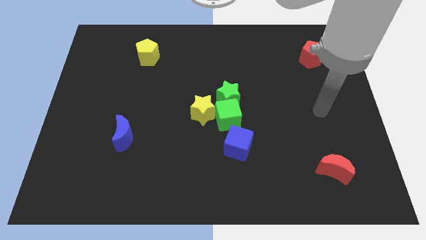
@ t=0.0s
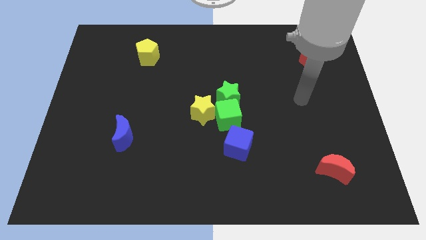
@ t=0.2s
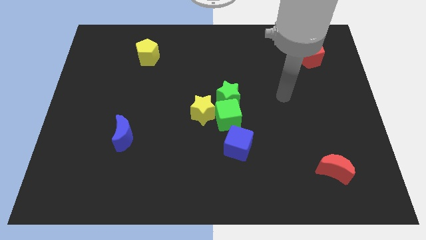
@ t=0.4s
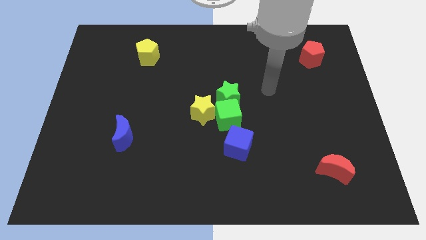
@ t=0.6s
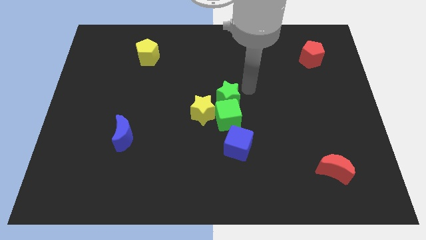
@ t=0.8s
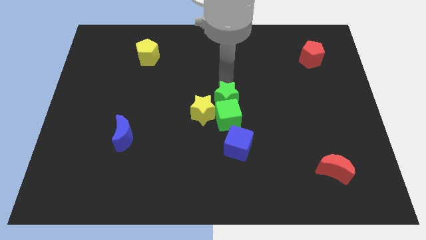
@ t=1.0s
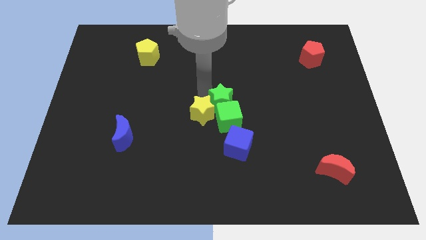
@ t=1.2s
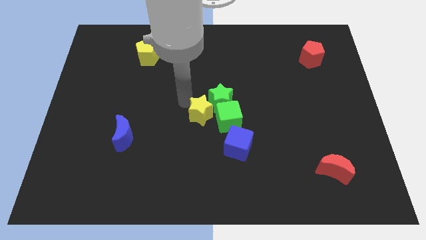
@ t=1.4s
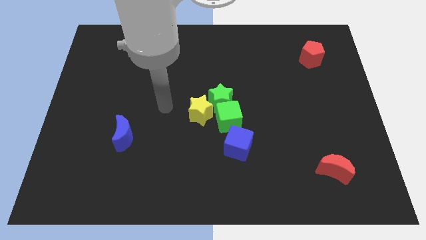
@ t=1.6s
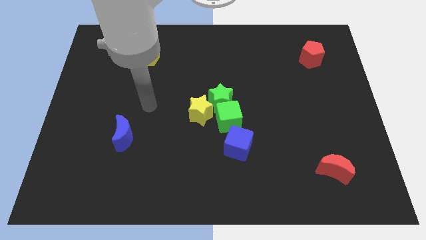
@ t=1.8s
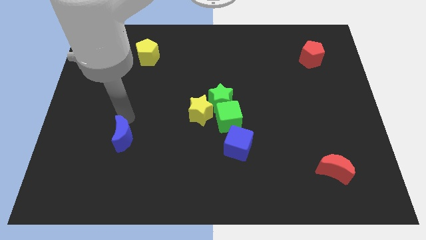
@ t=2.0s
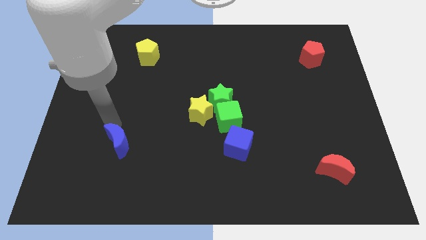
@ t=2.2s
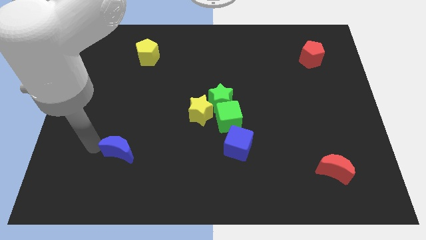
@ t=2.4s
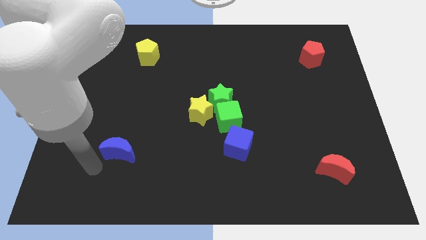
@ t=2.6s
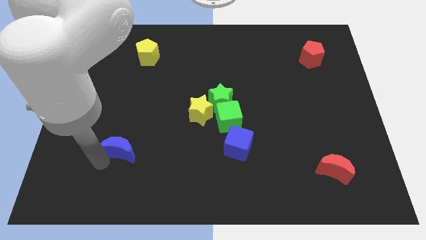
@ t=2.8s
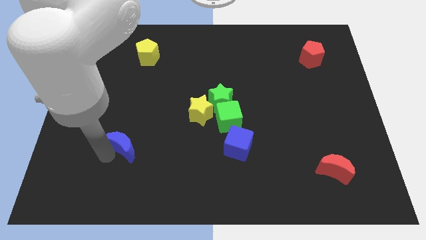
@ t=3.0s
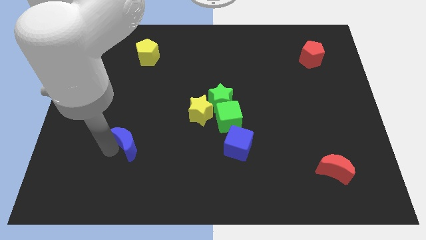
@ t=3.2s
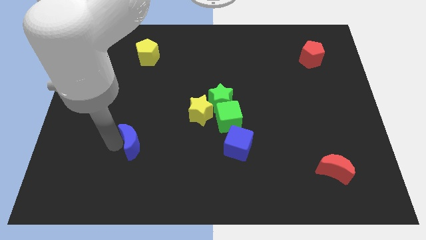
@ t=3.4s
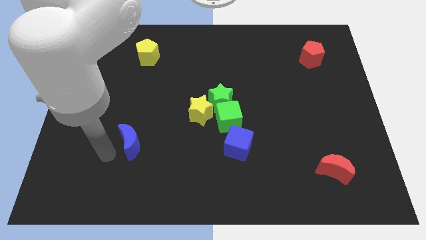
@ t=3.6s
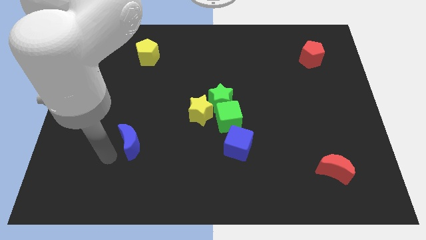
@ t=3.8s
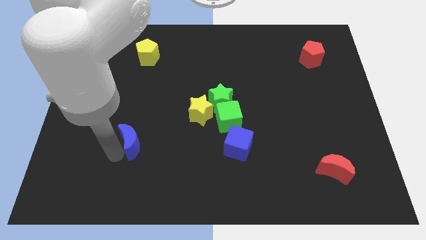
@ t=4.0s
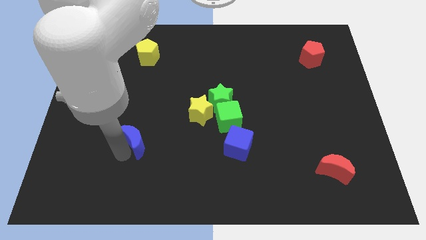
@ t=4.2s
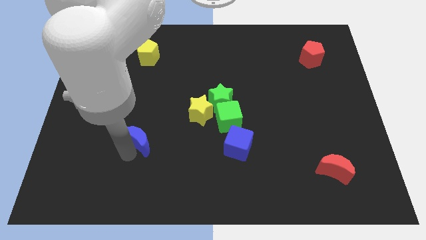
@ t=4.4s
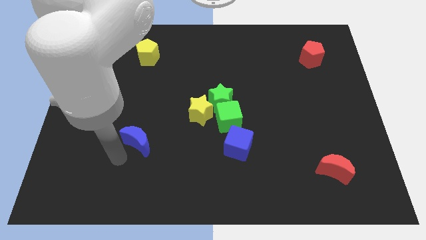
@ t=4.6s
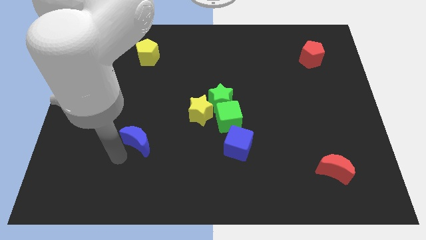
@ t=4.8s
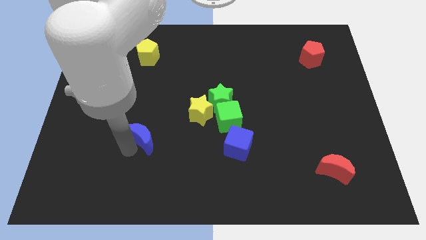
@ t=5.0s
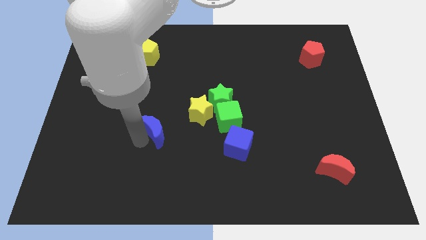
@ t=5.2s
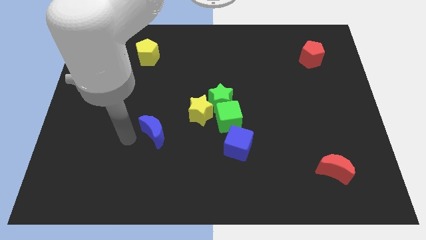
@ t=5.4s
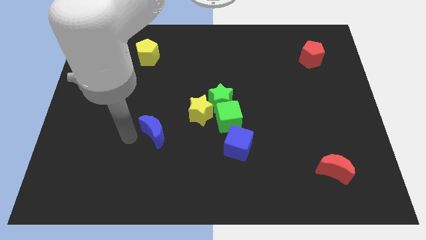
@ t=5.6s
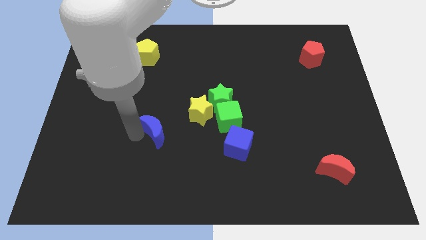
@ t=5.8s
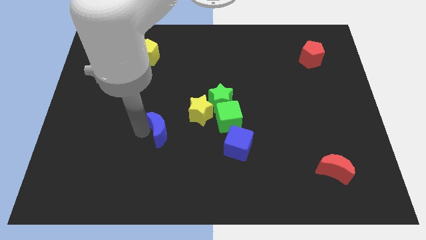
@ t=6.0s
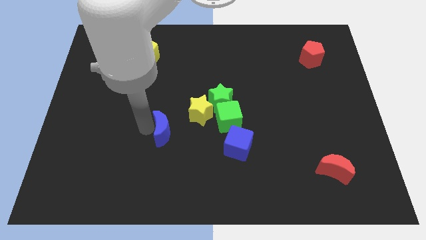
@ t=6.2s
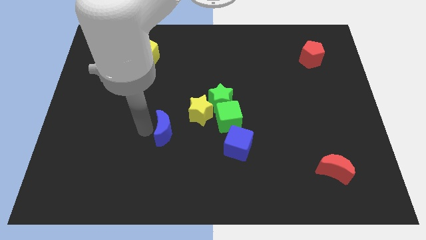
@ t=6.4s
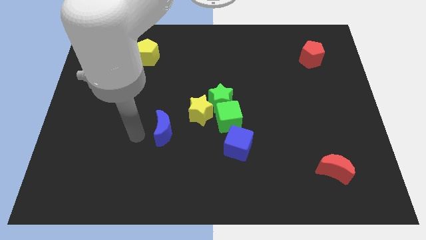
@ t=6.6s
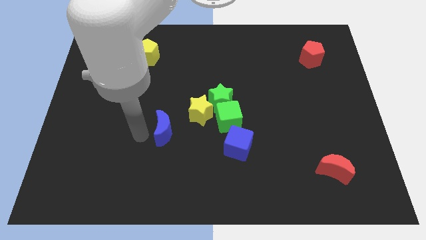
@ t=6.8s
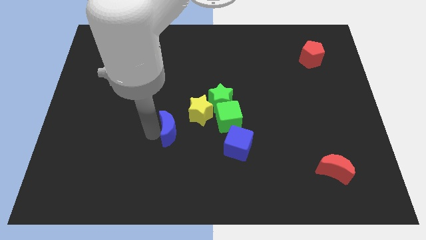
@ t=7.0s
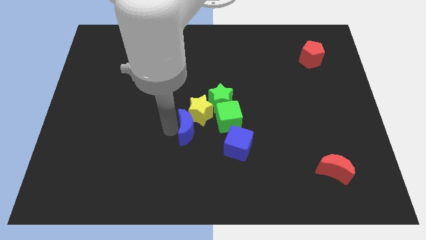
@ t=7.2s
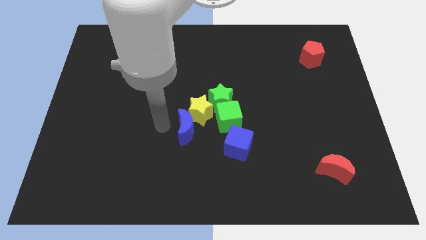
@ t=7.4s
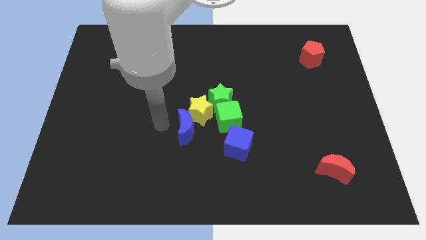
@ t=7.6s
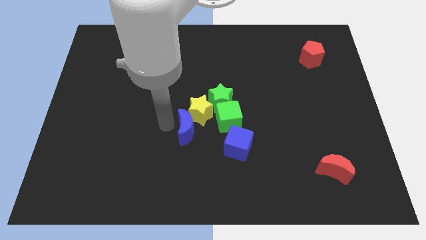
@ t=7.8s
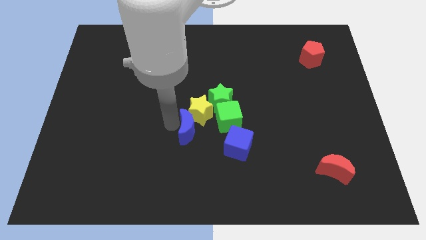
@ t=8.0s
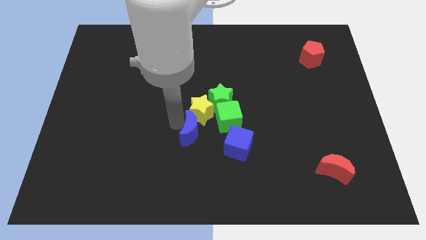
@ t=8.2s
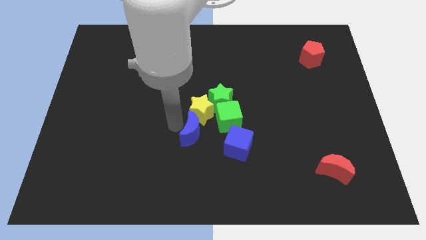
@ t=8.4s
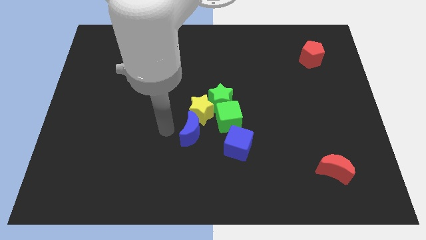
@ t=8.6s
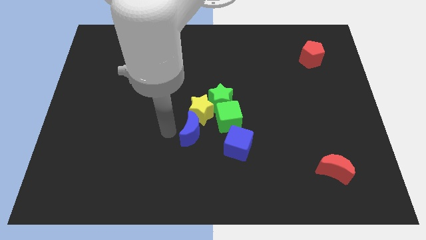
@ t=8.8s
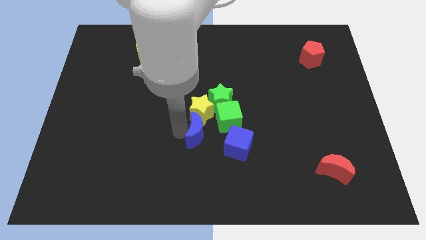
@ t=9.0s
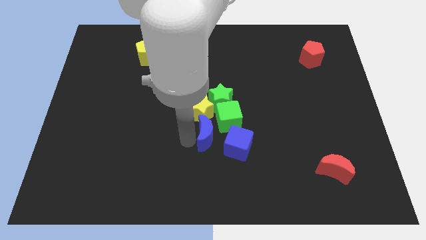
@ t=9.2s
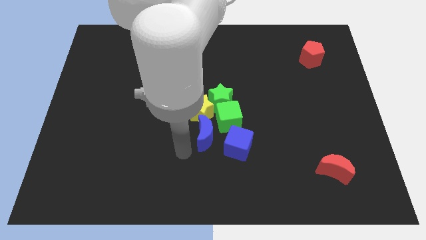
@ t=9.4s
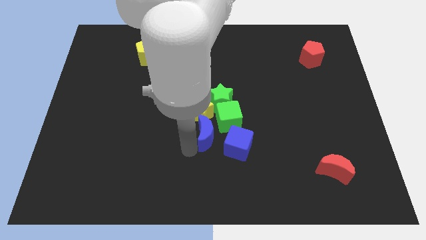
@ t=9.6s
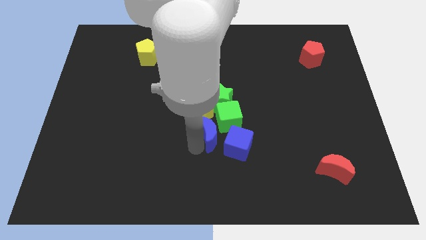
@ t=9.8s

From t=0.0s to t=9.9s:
push the blue moon to the green cube

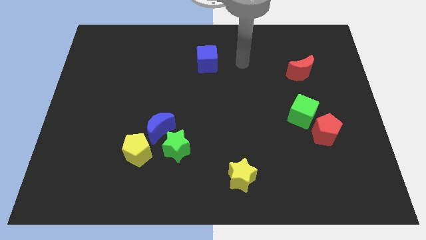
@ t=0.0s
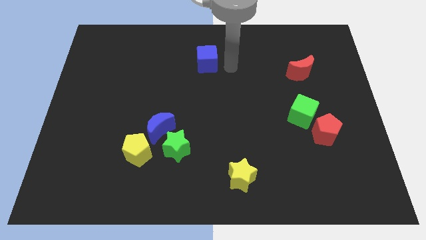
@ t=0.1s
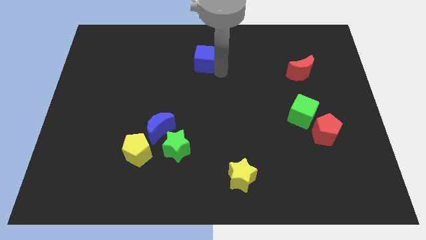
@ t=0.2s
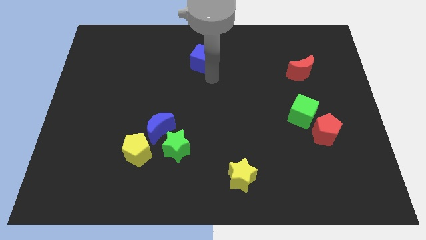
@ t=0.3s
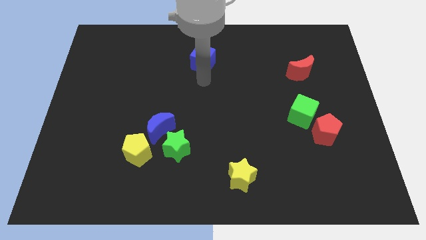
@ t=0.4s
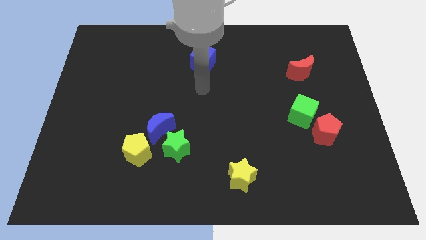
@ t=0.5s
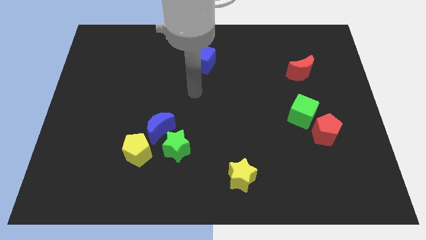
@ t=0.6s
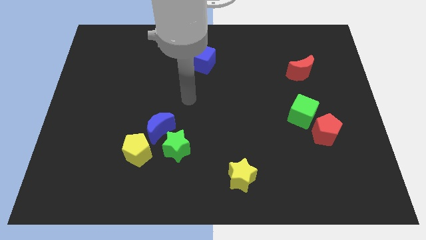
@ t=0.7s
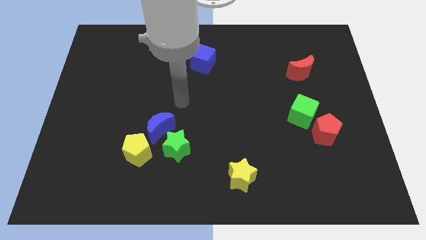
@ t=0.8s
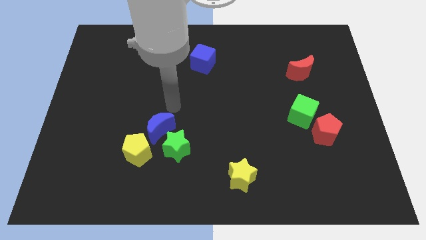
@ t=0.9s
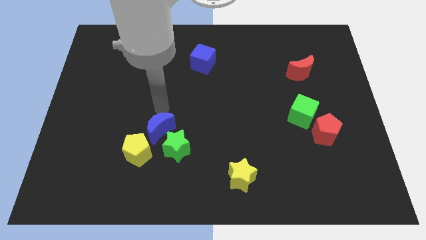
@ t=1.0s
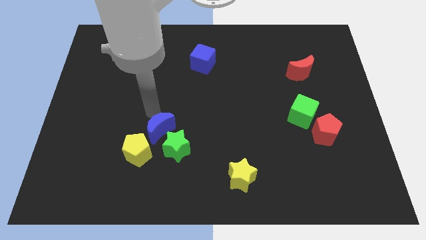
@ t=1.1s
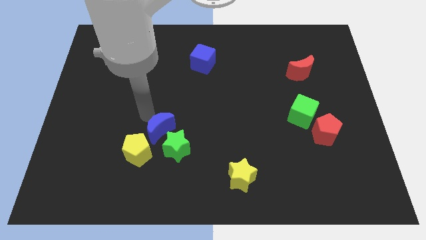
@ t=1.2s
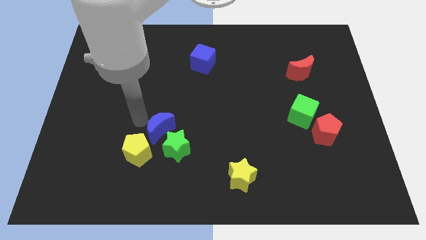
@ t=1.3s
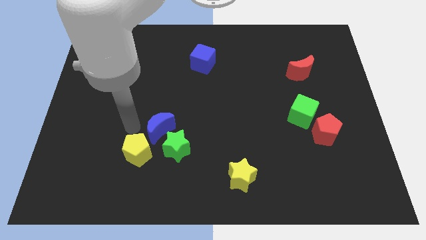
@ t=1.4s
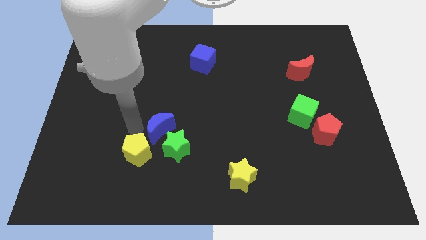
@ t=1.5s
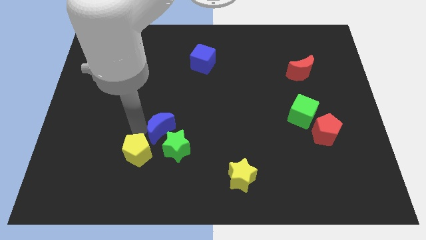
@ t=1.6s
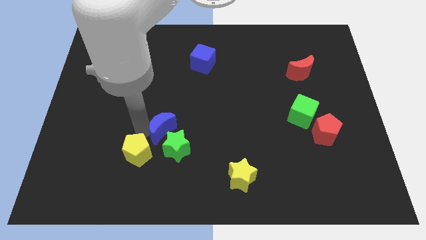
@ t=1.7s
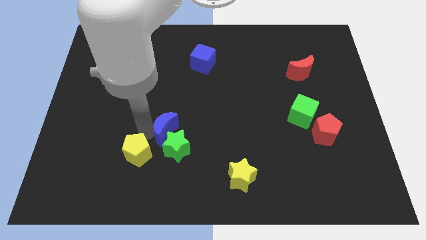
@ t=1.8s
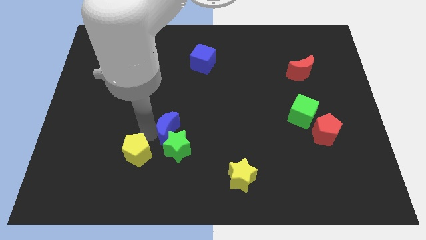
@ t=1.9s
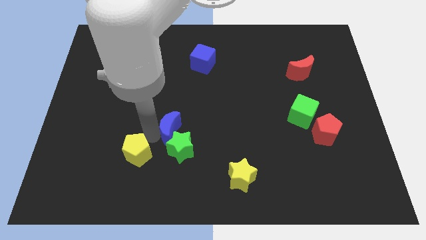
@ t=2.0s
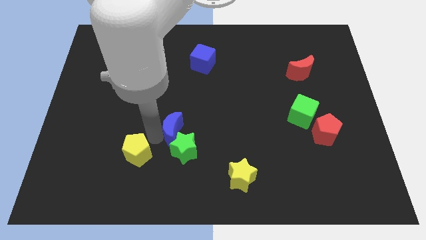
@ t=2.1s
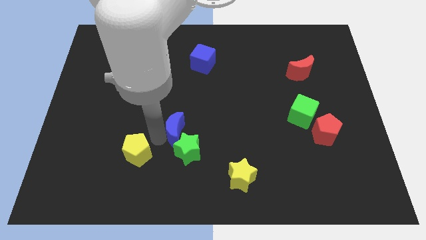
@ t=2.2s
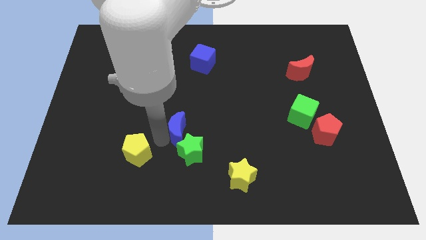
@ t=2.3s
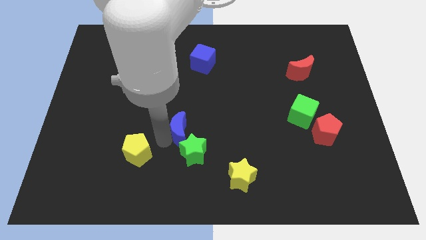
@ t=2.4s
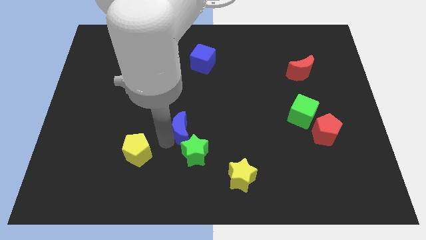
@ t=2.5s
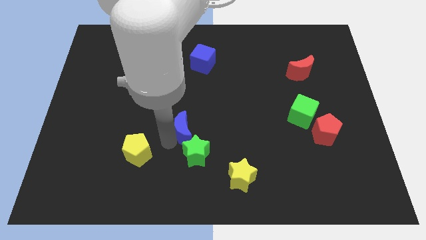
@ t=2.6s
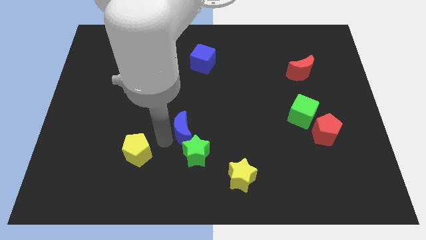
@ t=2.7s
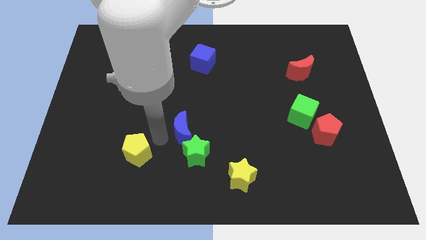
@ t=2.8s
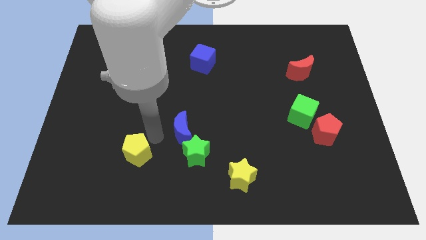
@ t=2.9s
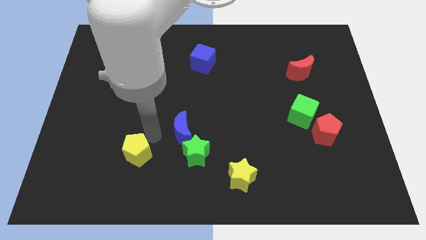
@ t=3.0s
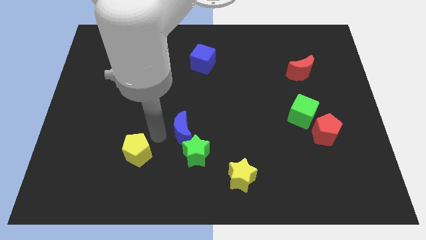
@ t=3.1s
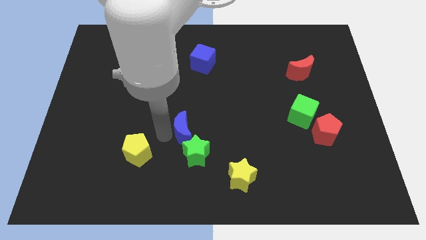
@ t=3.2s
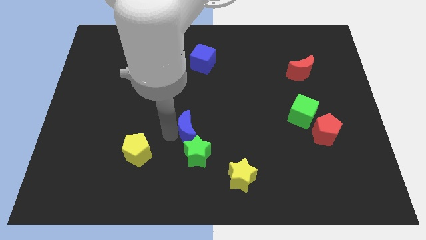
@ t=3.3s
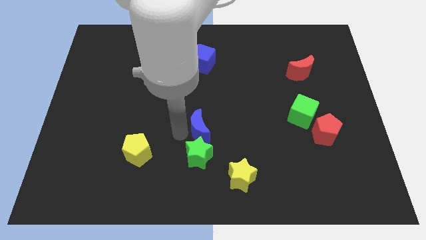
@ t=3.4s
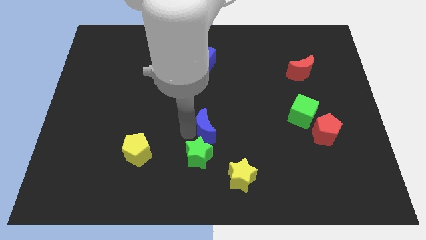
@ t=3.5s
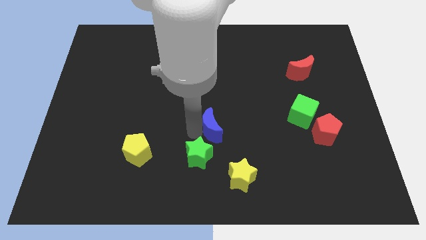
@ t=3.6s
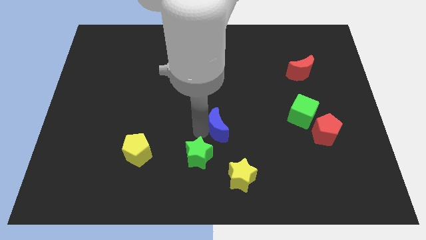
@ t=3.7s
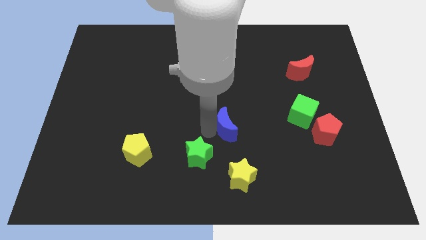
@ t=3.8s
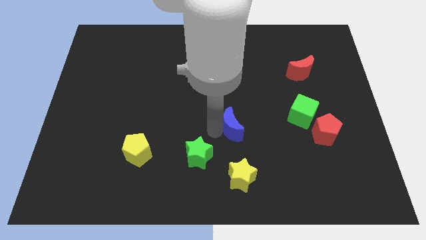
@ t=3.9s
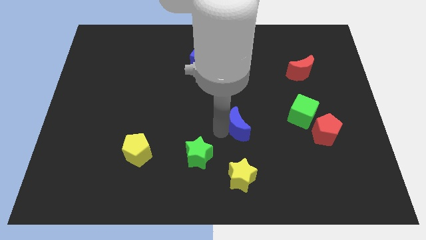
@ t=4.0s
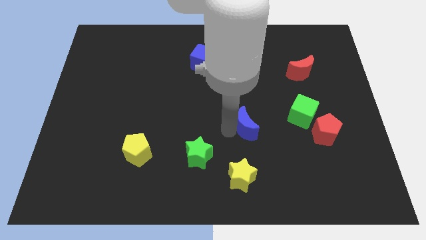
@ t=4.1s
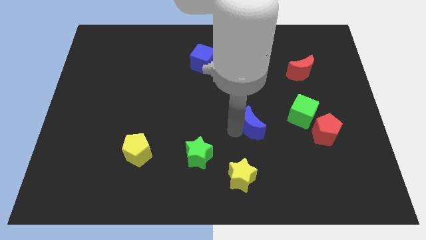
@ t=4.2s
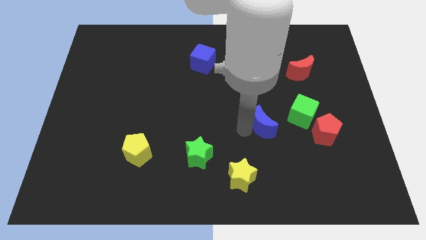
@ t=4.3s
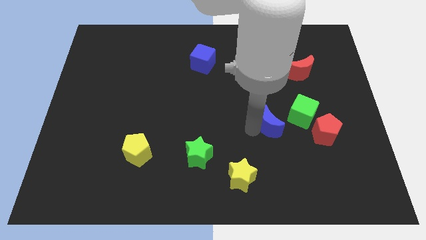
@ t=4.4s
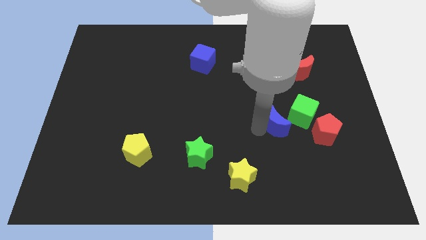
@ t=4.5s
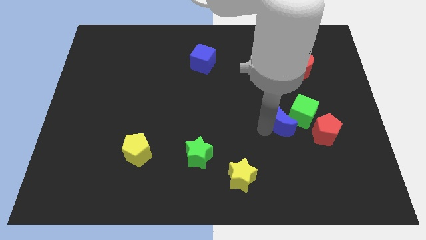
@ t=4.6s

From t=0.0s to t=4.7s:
put the blue moon next to the green cube
